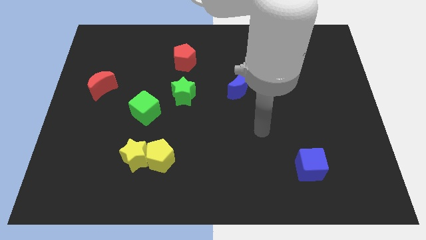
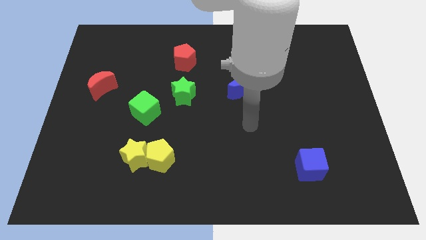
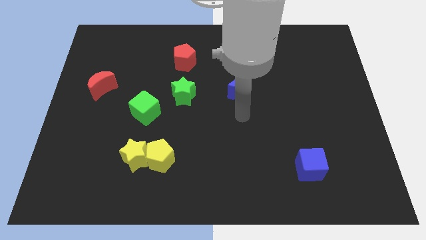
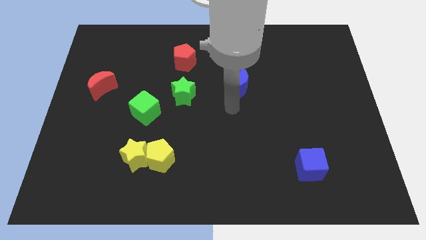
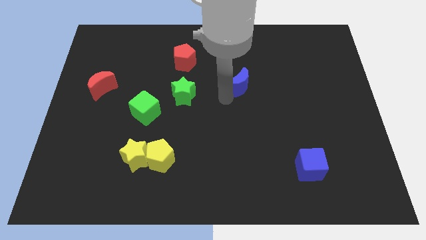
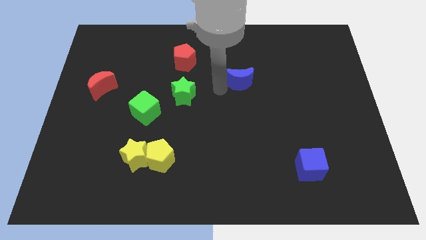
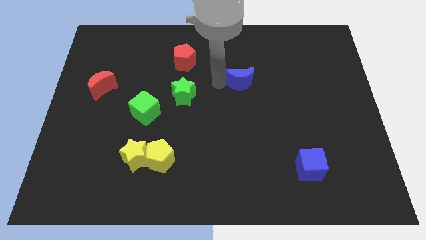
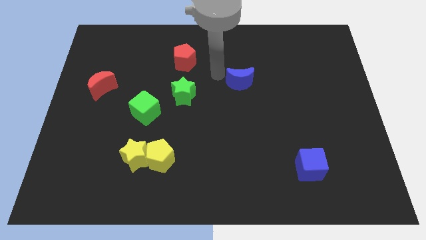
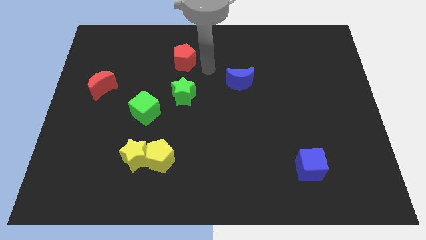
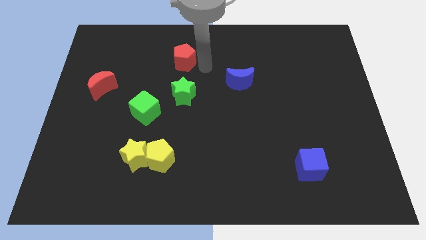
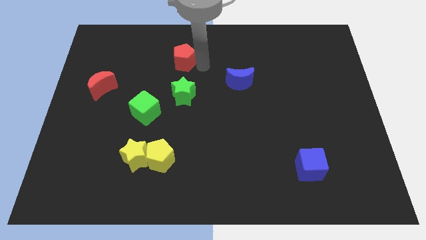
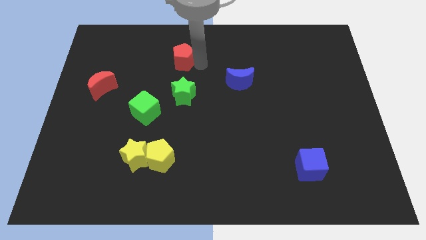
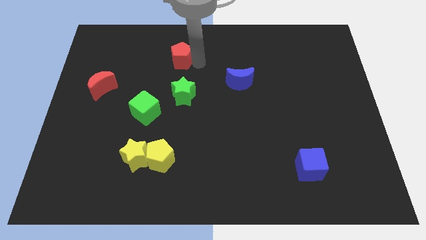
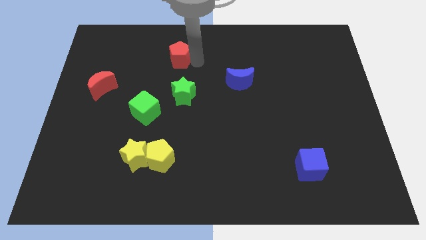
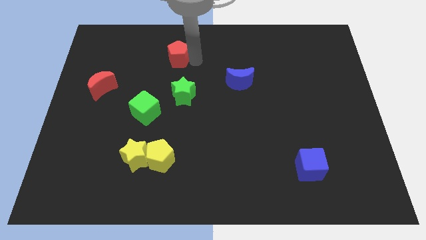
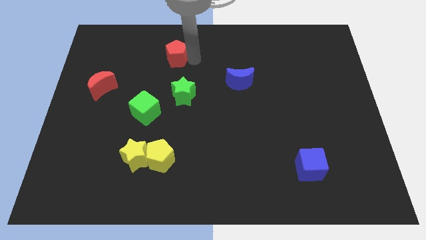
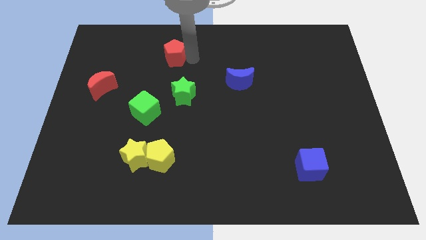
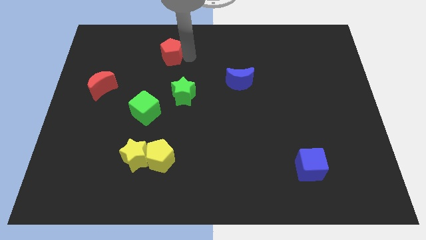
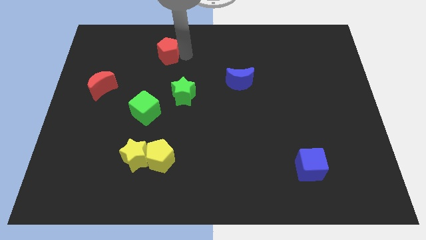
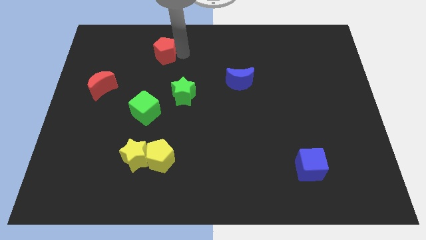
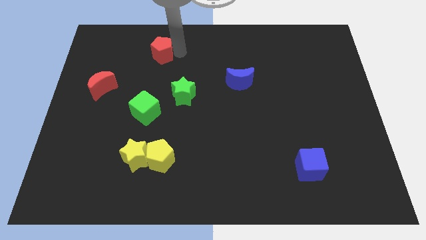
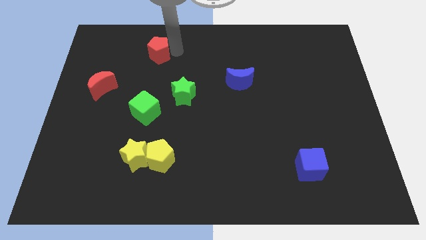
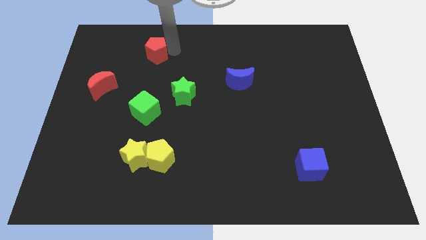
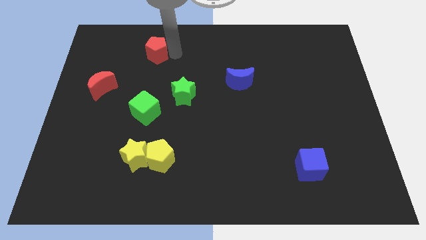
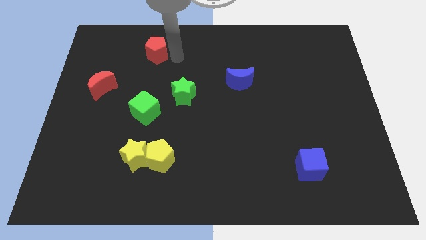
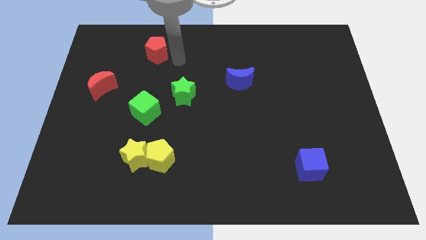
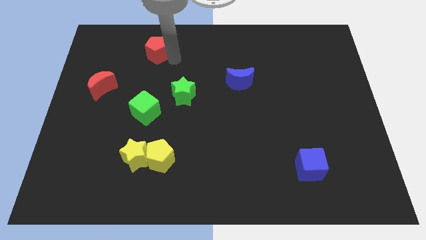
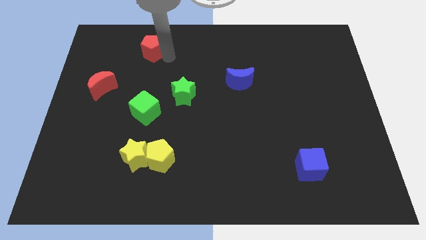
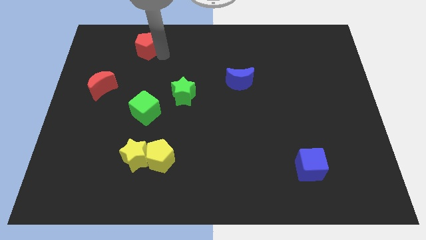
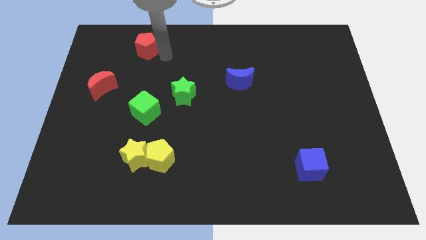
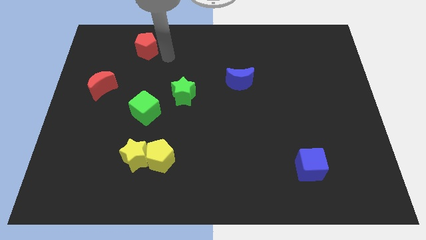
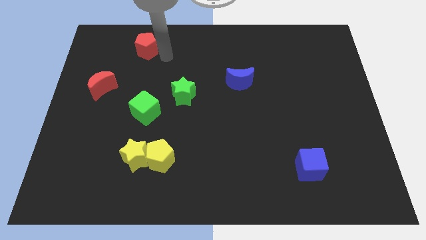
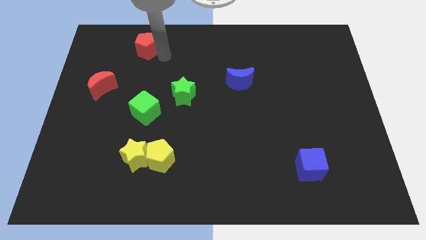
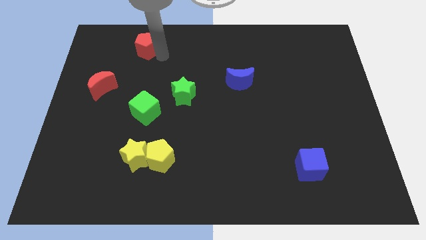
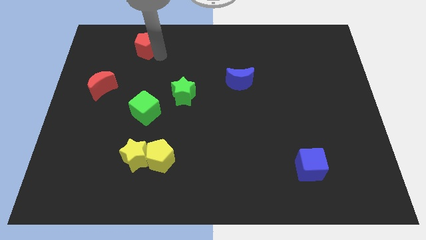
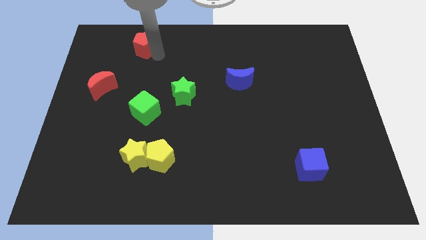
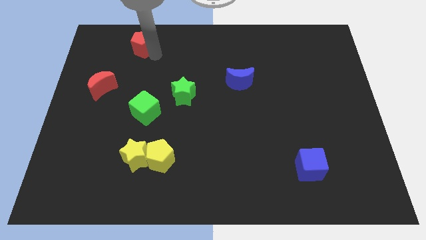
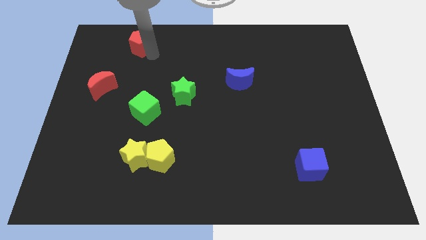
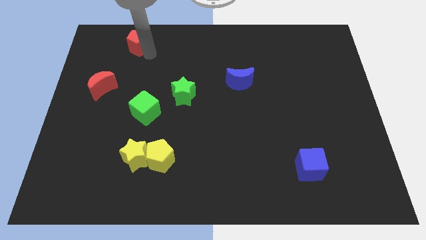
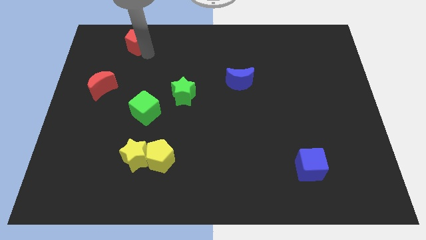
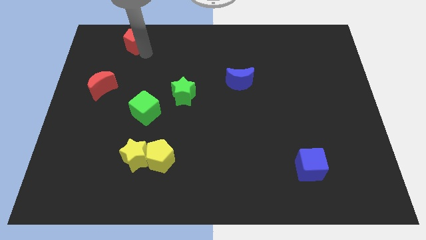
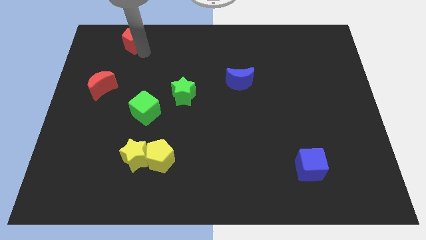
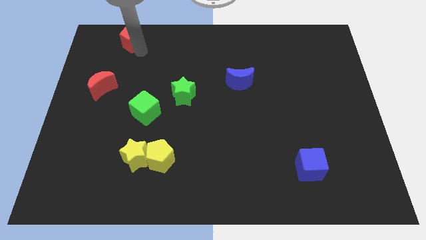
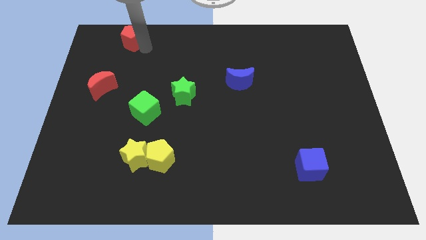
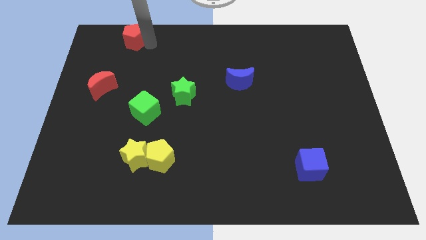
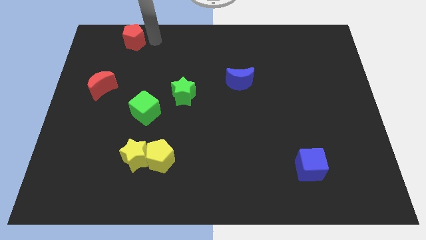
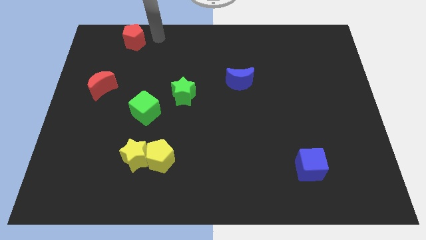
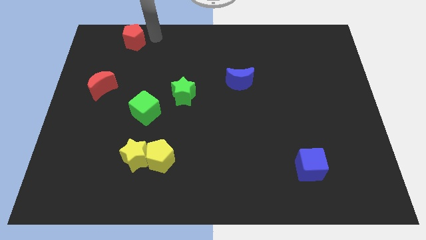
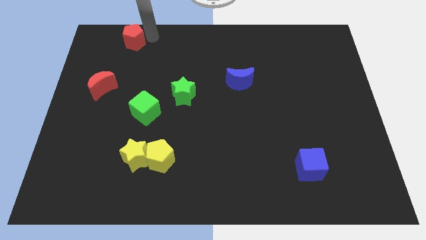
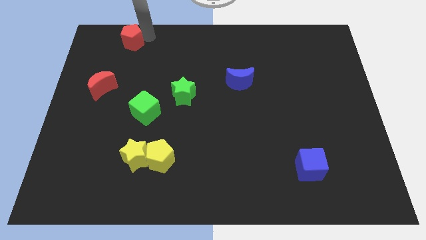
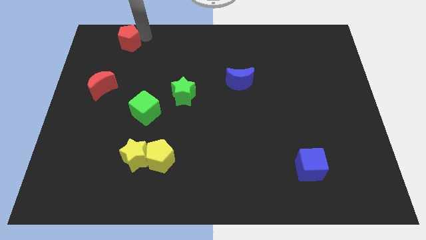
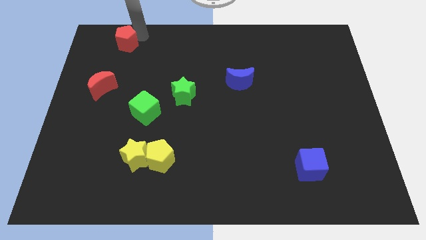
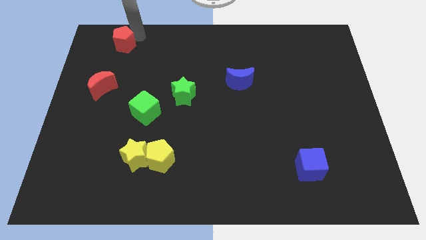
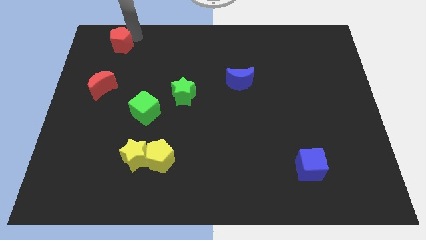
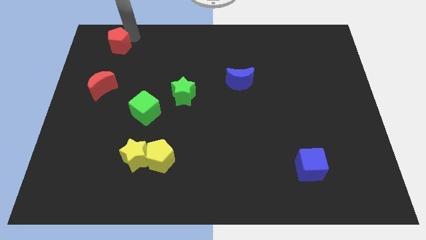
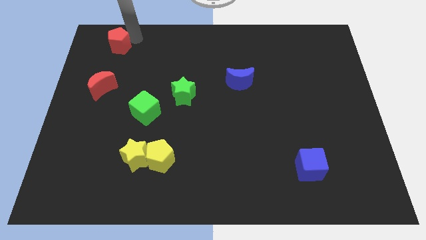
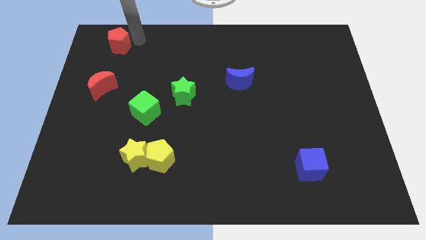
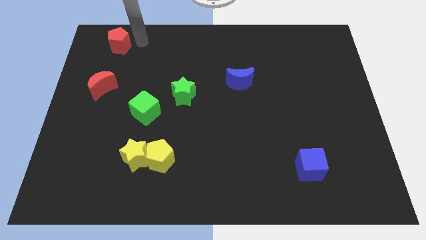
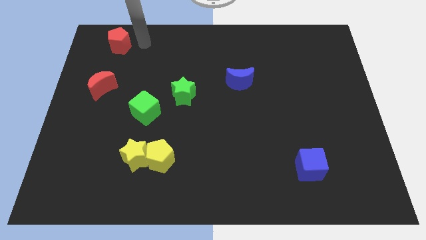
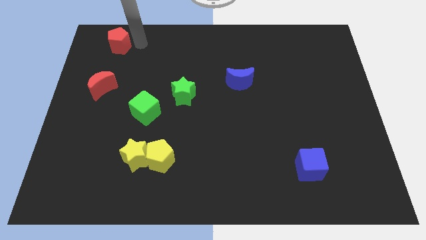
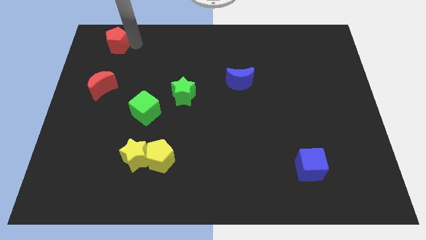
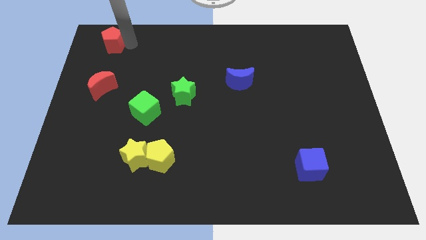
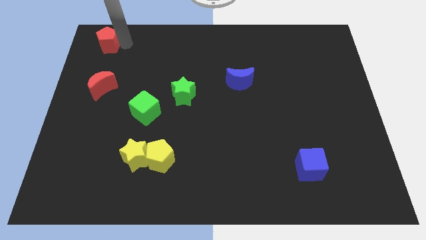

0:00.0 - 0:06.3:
put the red pentagon to the top left of the board
